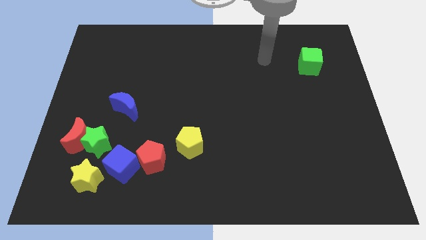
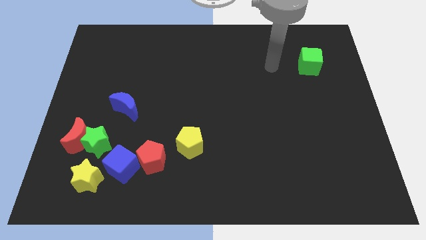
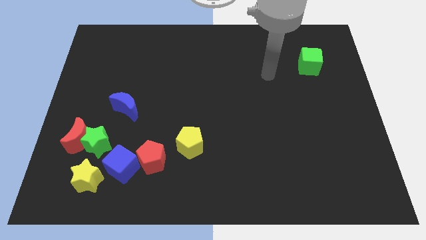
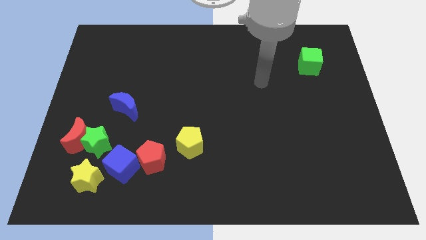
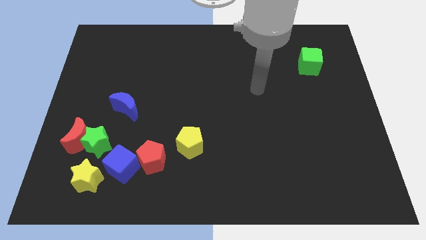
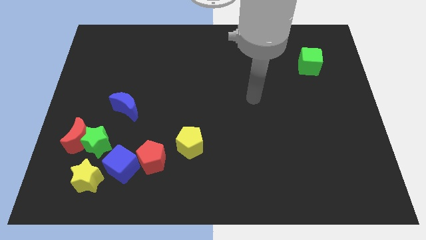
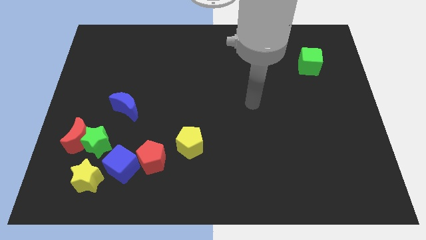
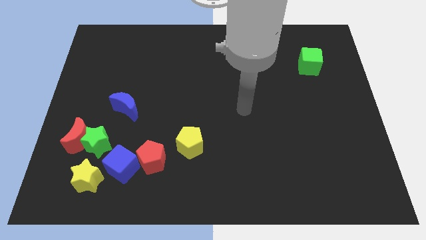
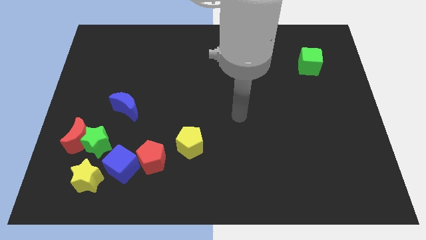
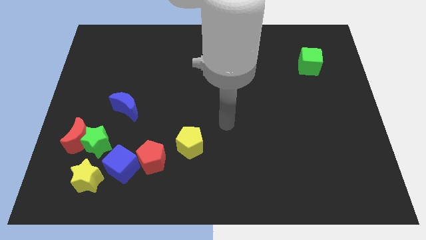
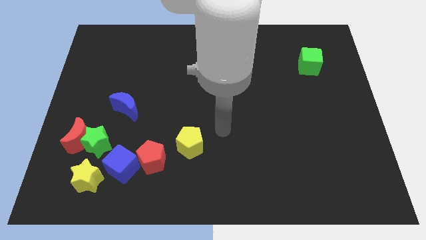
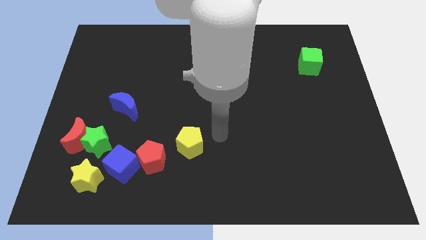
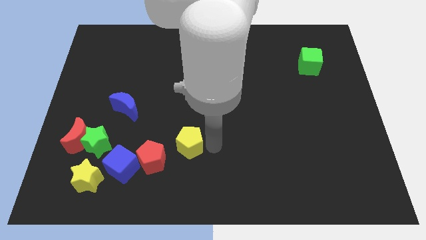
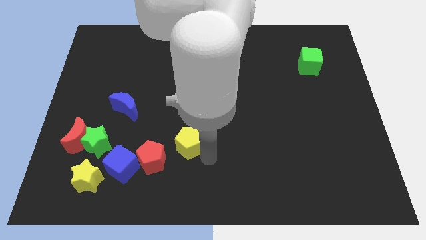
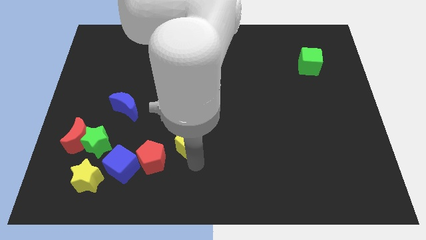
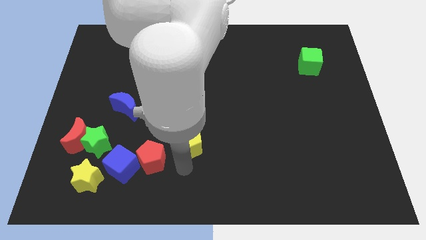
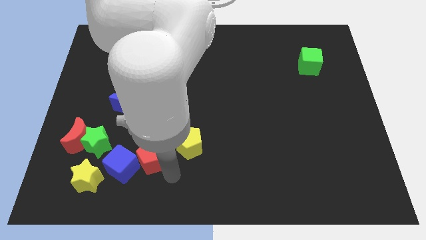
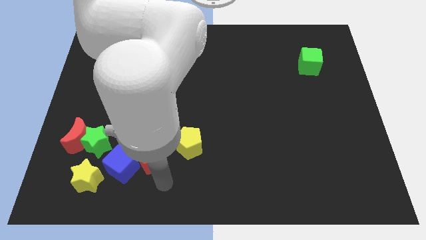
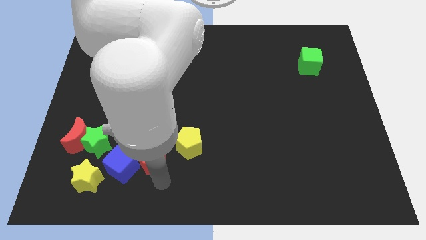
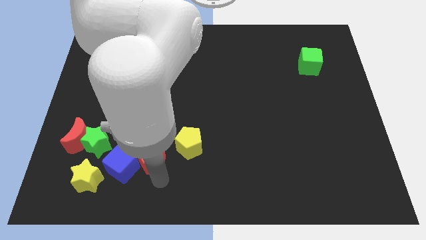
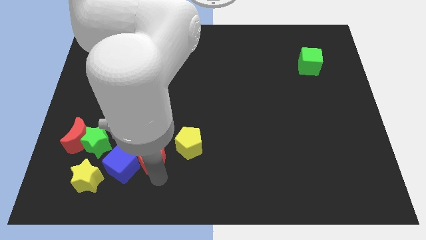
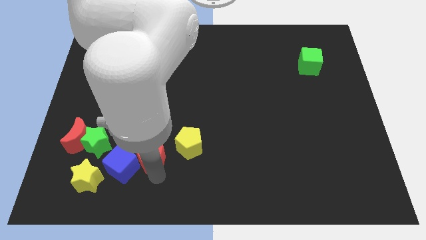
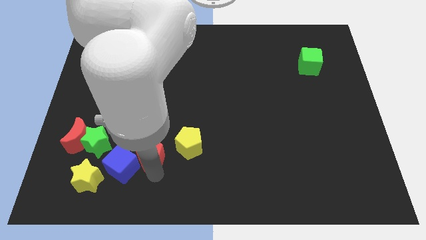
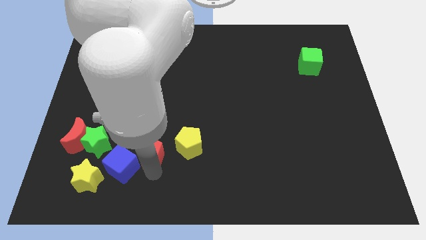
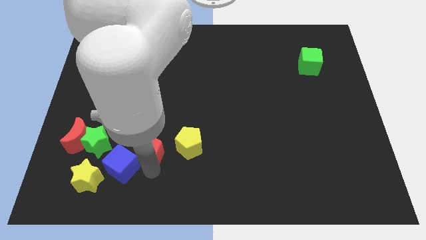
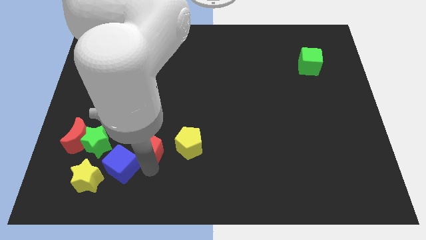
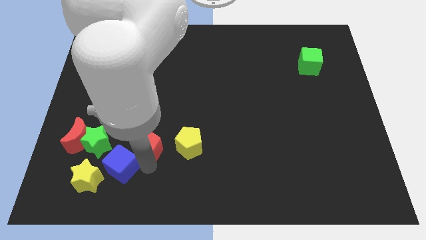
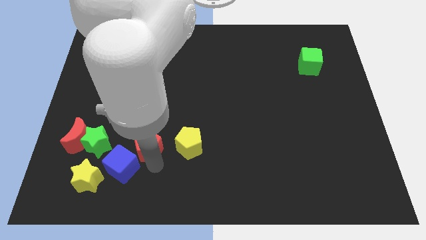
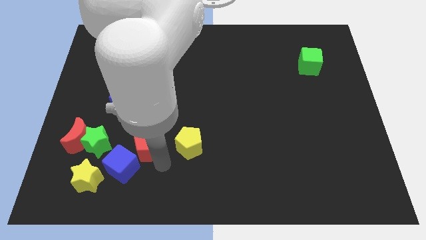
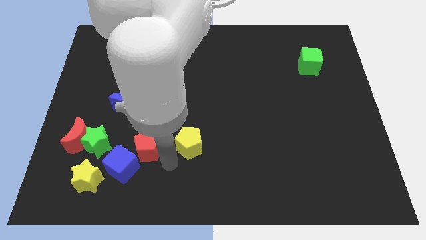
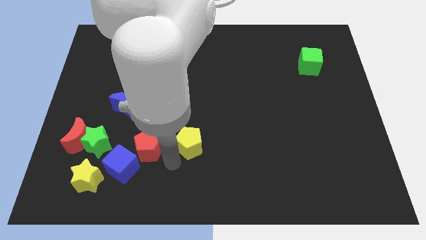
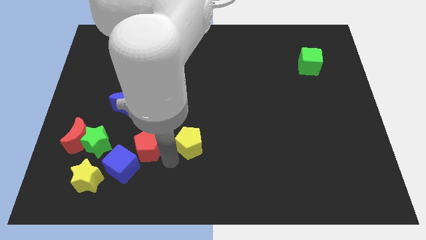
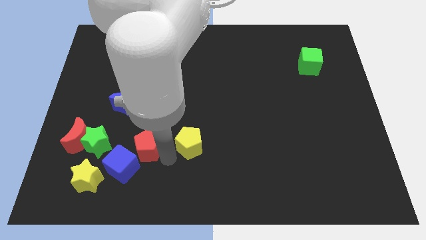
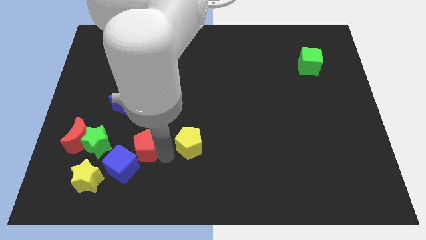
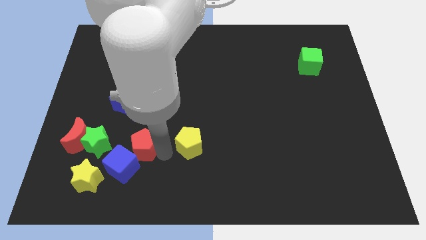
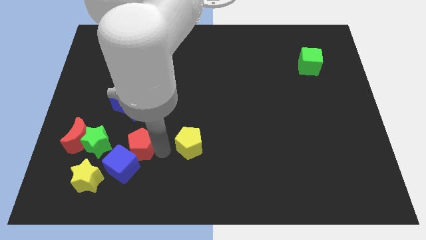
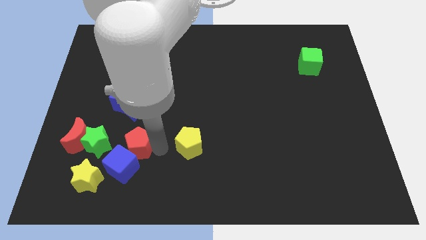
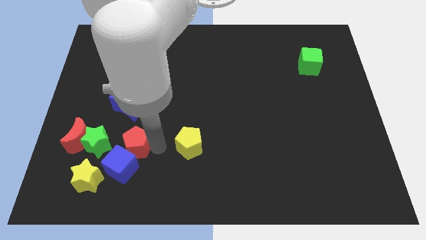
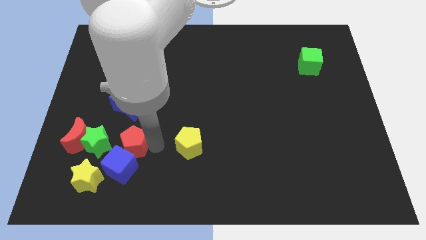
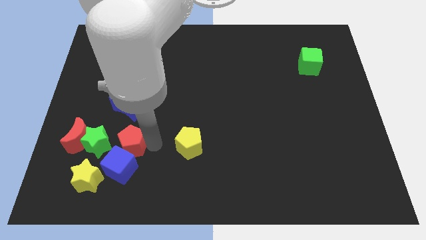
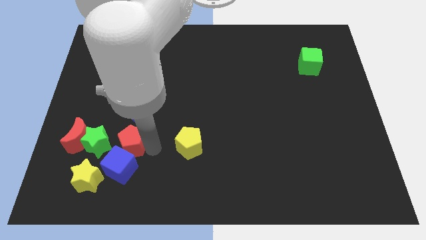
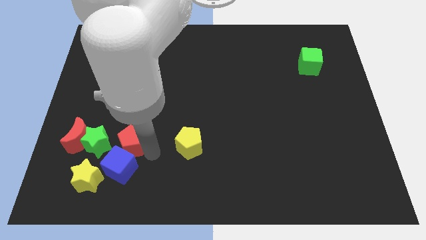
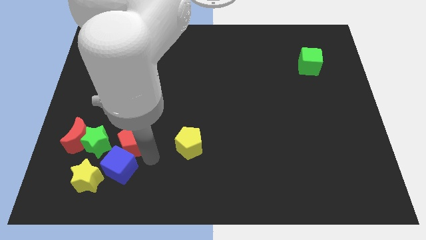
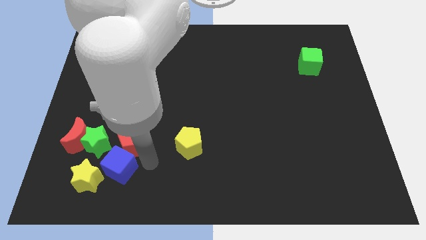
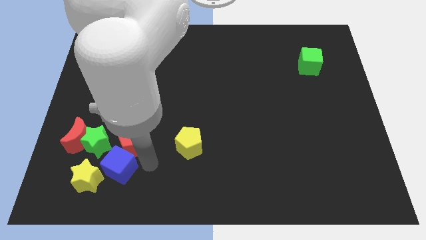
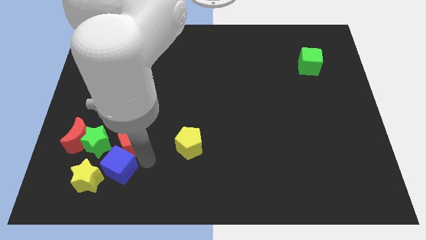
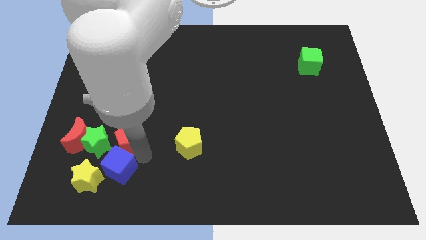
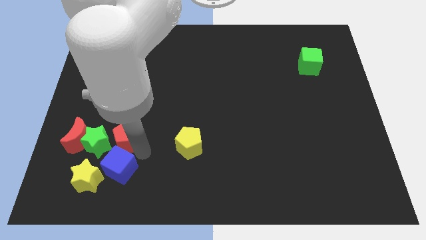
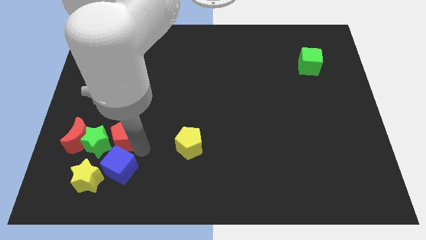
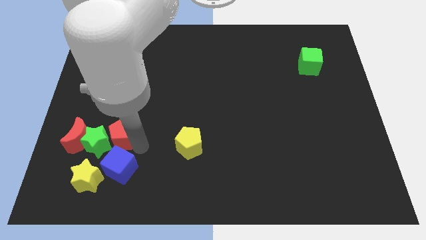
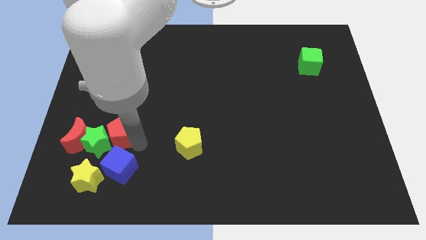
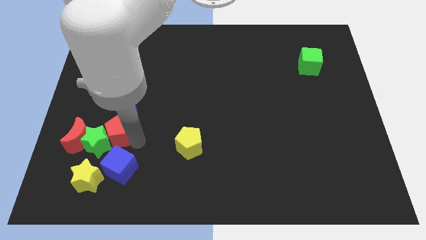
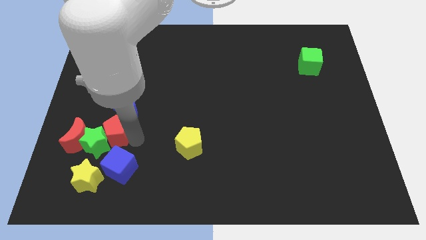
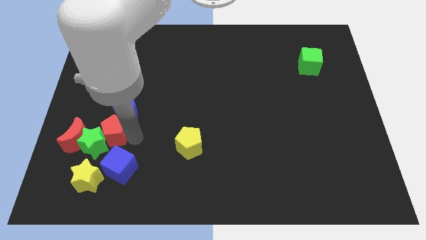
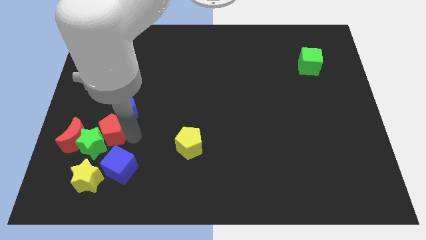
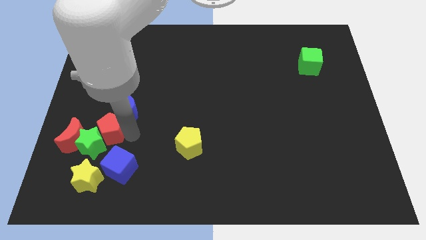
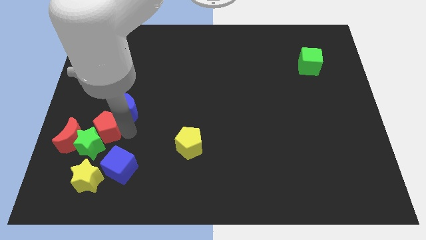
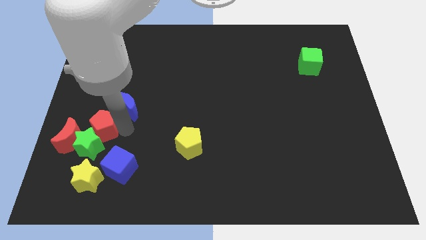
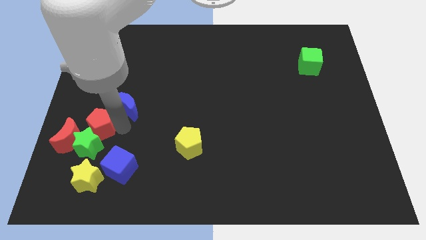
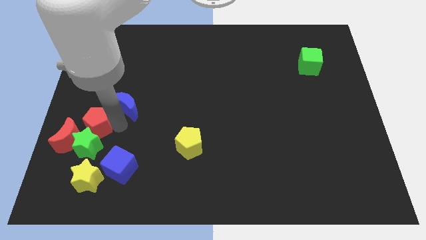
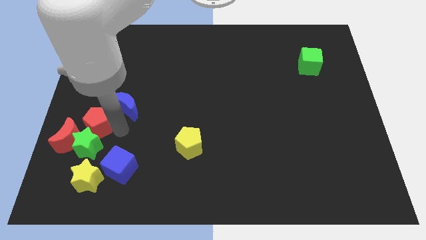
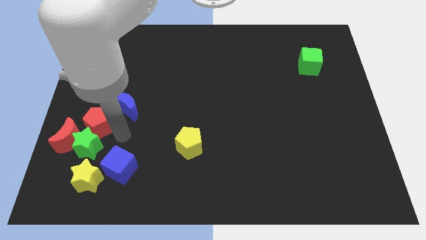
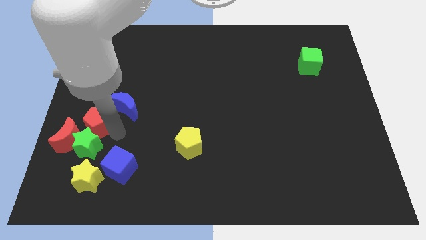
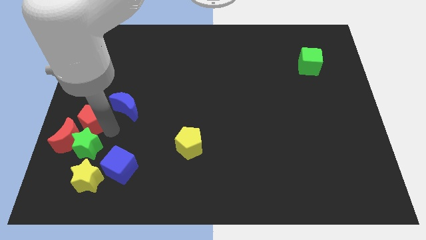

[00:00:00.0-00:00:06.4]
slide the red pentagon to the center left
